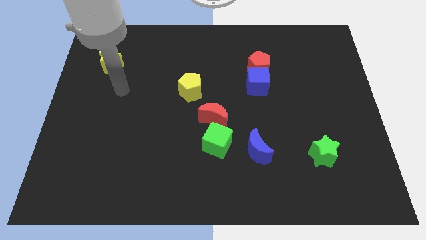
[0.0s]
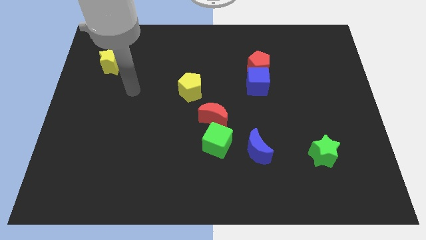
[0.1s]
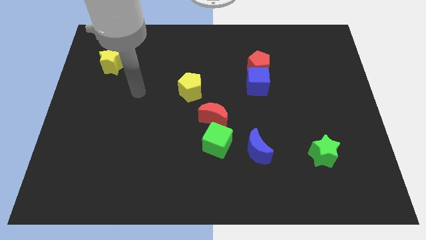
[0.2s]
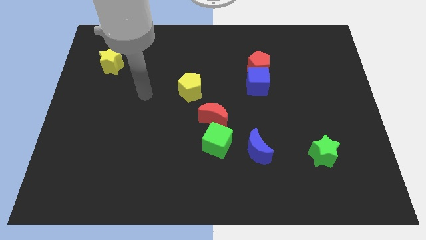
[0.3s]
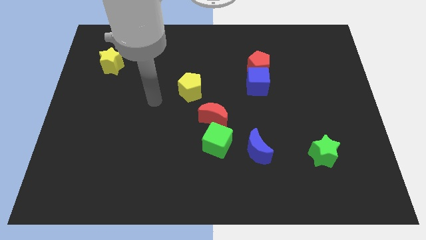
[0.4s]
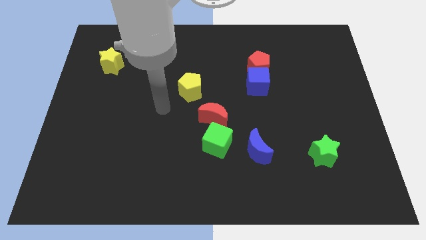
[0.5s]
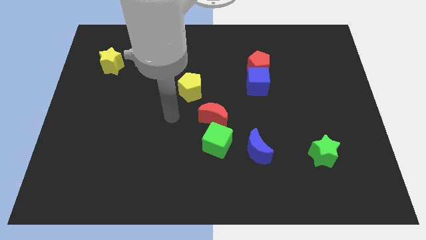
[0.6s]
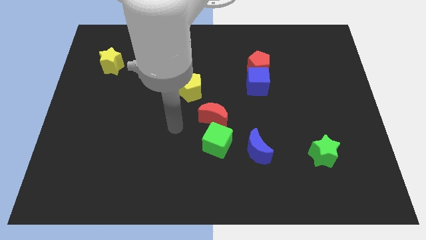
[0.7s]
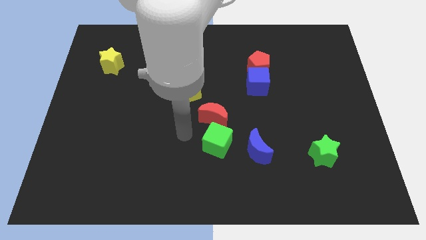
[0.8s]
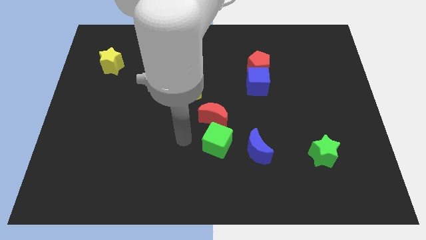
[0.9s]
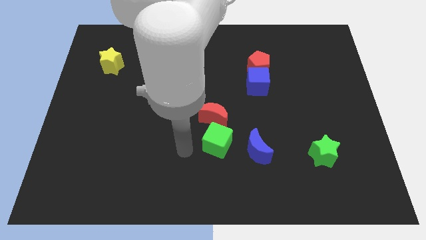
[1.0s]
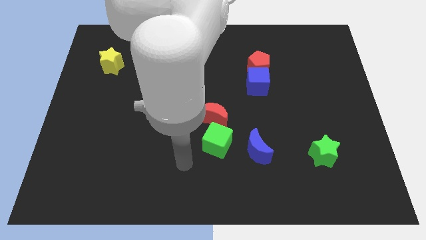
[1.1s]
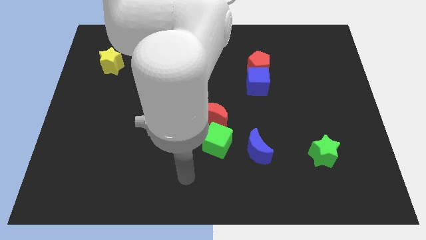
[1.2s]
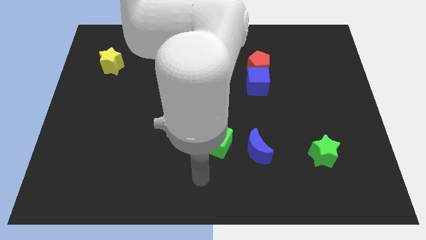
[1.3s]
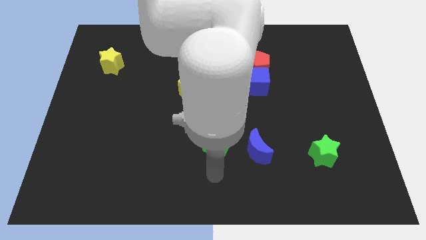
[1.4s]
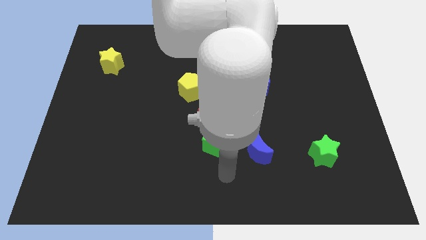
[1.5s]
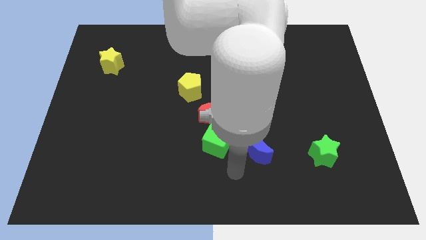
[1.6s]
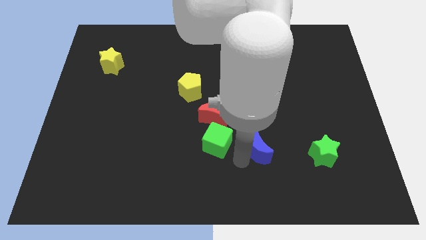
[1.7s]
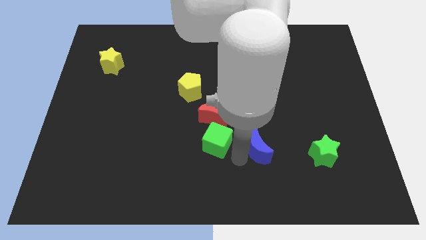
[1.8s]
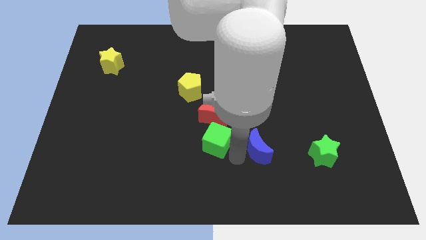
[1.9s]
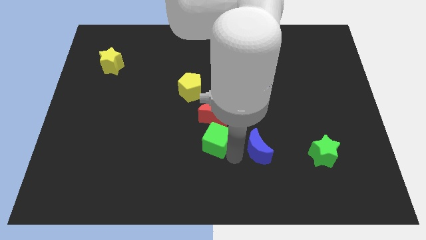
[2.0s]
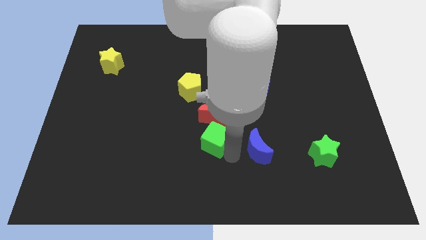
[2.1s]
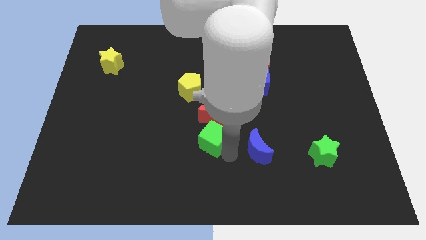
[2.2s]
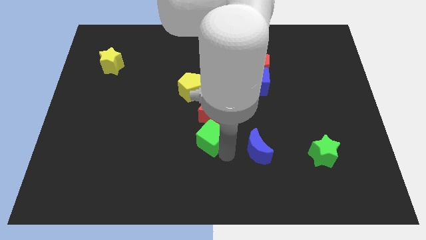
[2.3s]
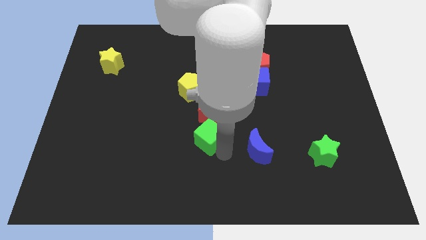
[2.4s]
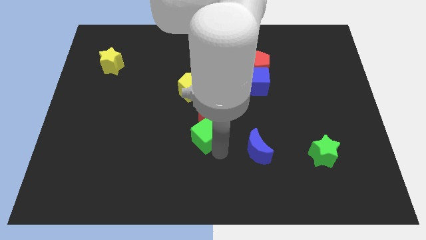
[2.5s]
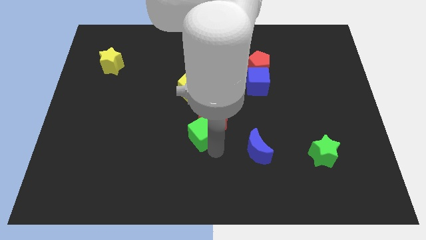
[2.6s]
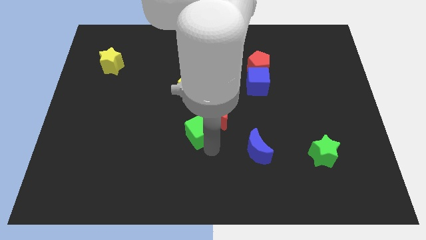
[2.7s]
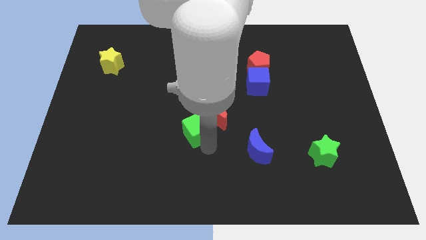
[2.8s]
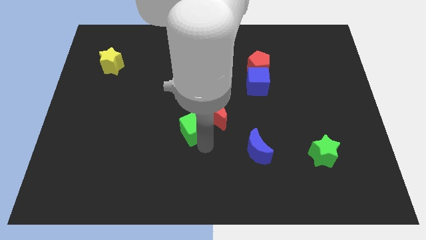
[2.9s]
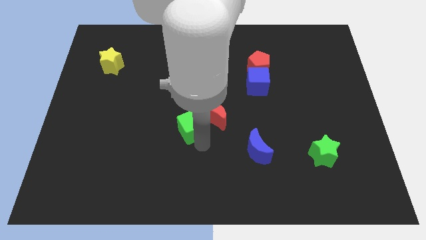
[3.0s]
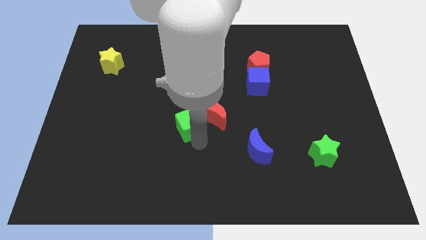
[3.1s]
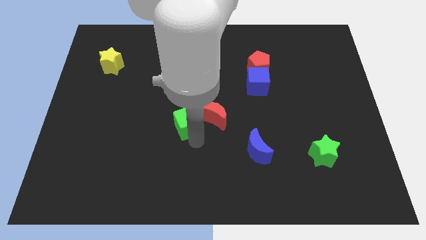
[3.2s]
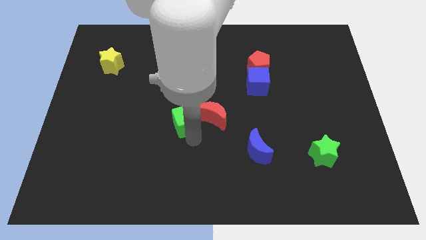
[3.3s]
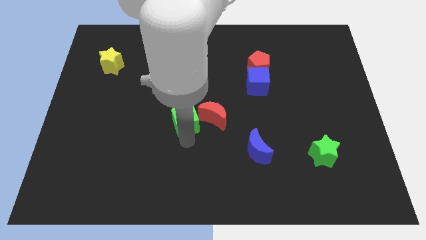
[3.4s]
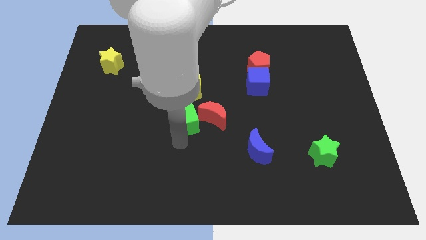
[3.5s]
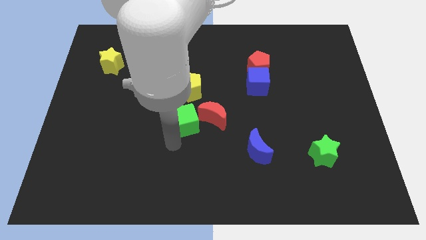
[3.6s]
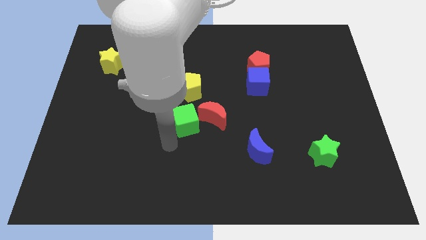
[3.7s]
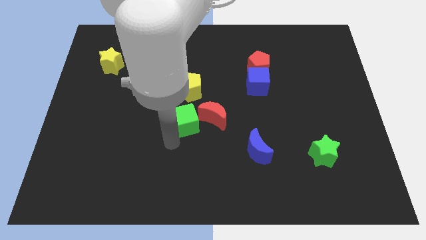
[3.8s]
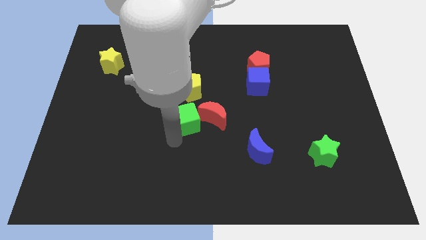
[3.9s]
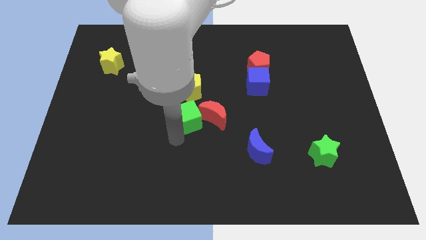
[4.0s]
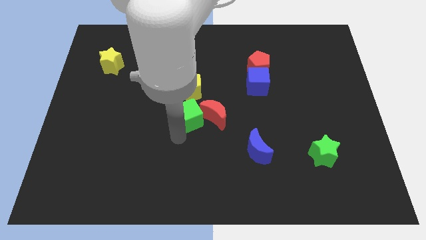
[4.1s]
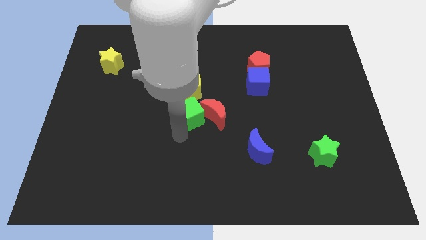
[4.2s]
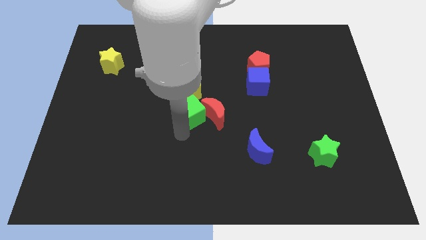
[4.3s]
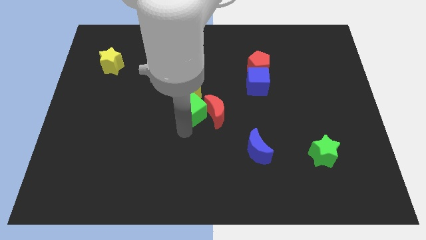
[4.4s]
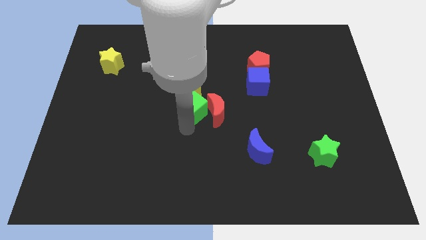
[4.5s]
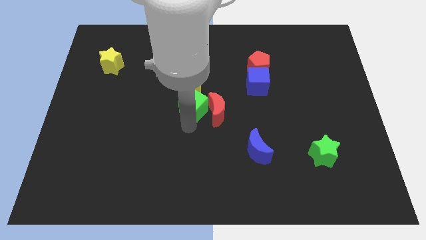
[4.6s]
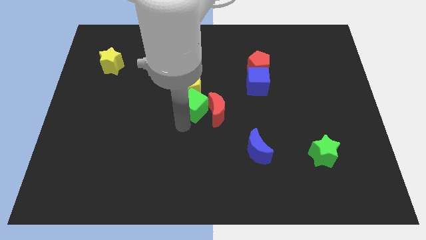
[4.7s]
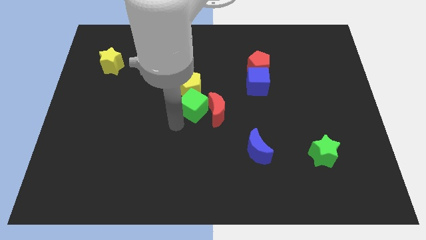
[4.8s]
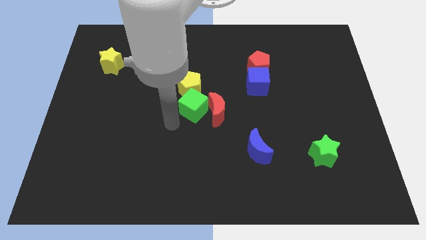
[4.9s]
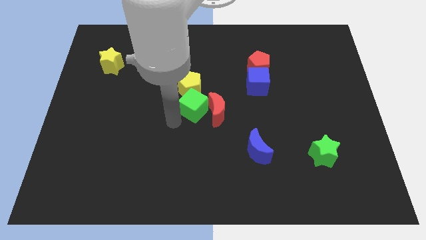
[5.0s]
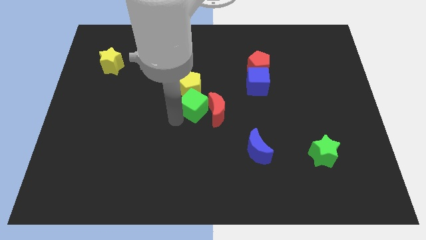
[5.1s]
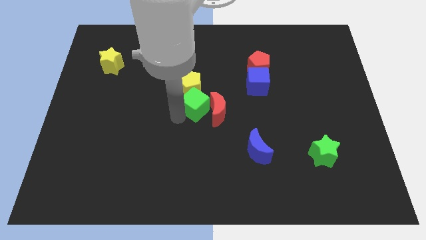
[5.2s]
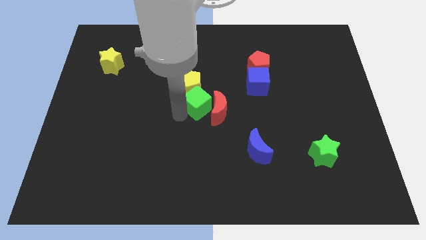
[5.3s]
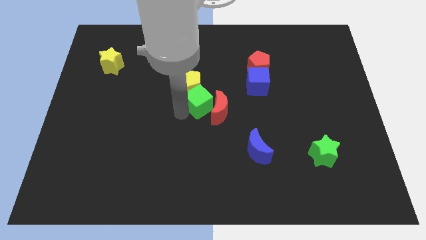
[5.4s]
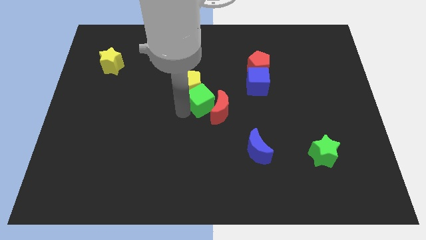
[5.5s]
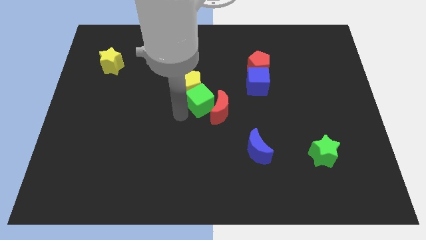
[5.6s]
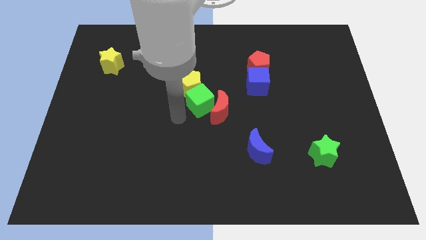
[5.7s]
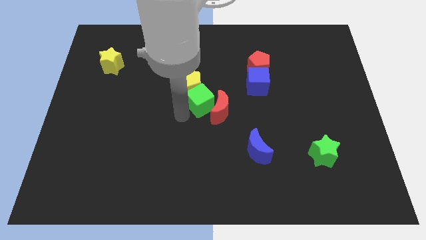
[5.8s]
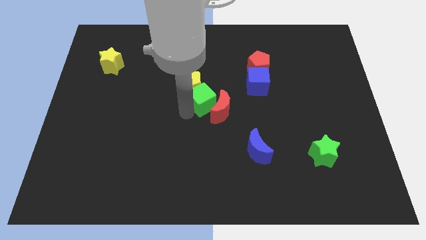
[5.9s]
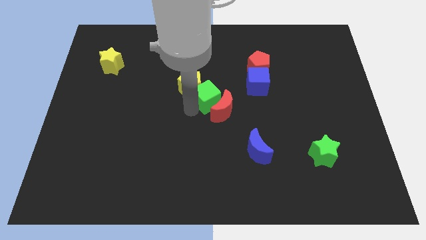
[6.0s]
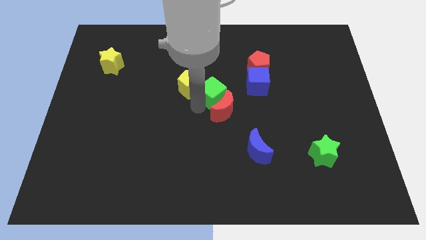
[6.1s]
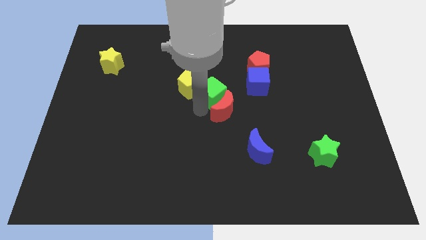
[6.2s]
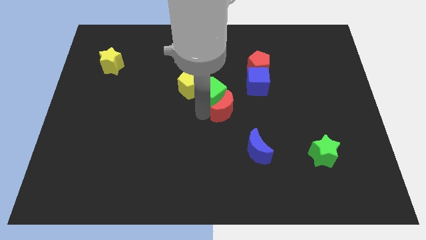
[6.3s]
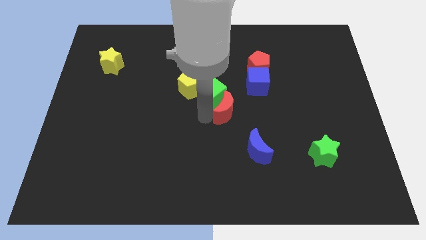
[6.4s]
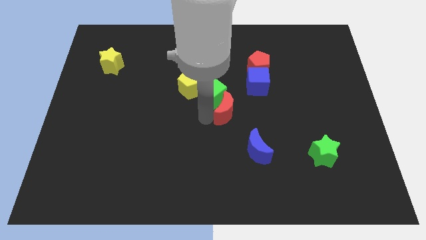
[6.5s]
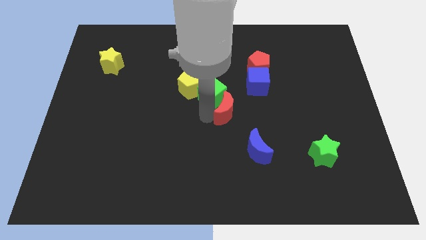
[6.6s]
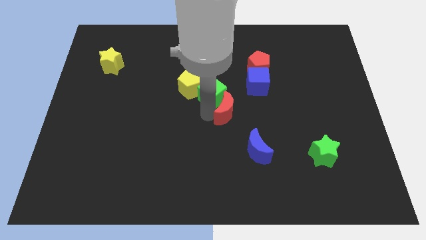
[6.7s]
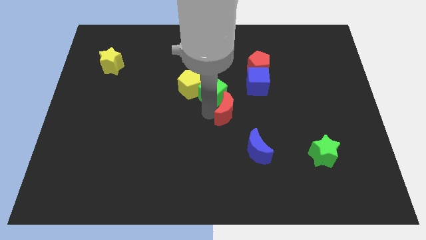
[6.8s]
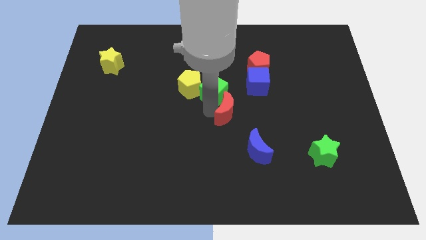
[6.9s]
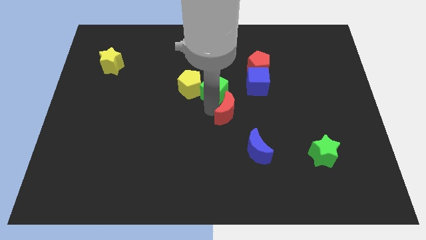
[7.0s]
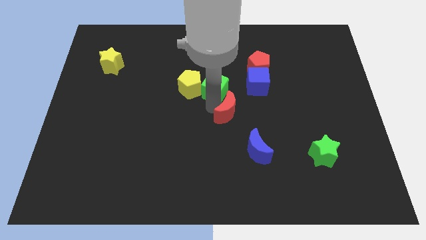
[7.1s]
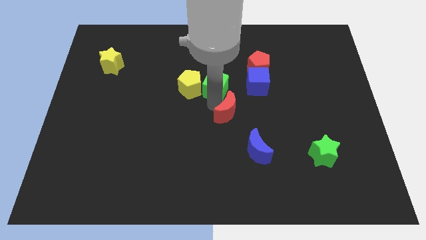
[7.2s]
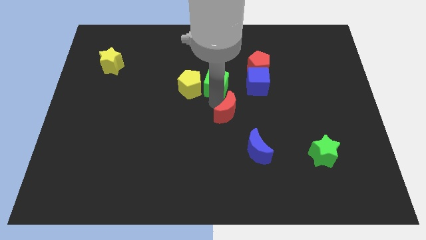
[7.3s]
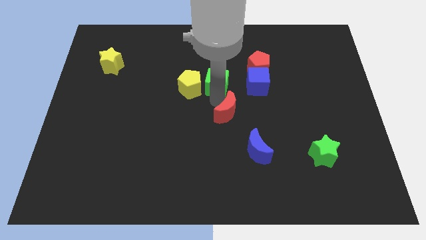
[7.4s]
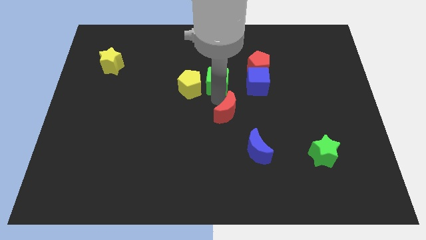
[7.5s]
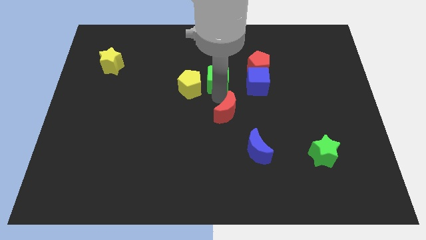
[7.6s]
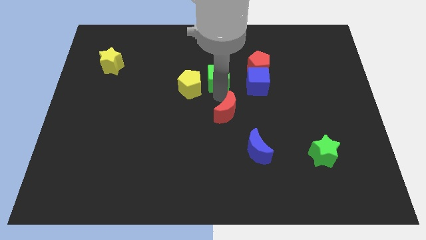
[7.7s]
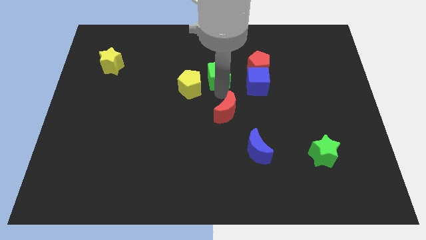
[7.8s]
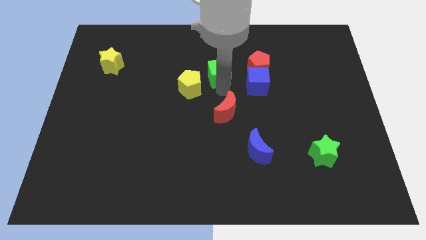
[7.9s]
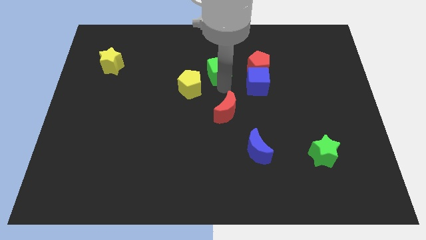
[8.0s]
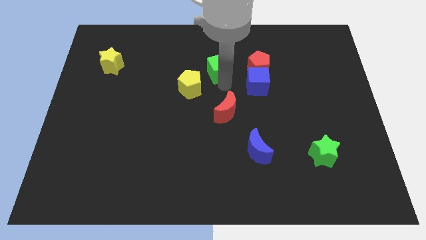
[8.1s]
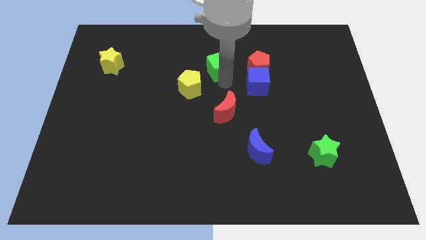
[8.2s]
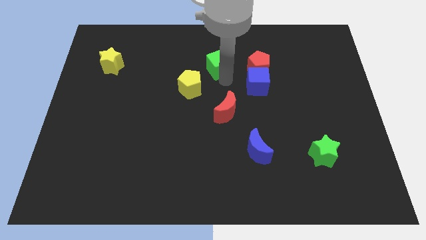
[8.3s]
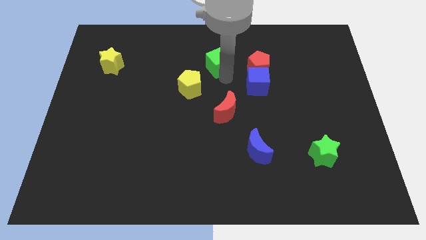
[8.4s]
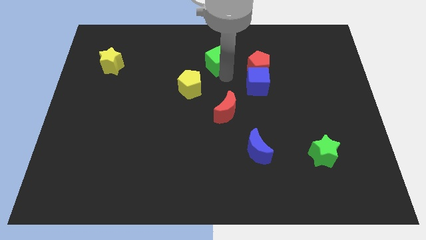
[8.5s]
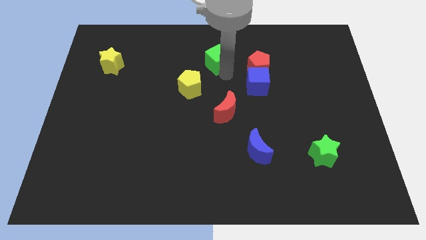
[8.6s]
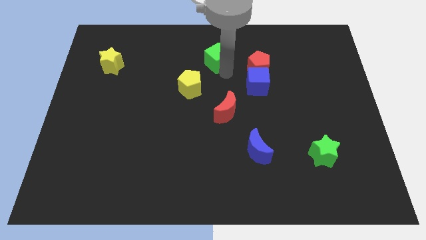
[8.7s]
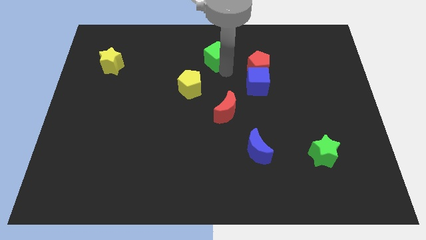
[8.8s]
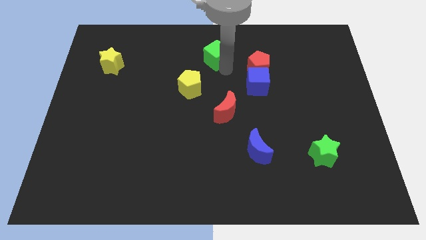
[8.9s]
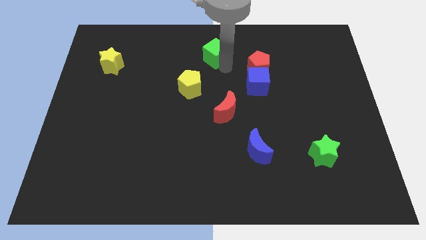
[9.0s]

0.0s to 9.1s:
push the green cube to the top side
